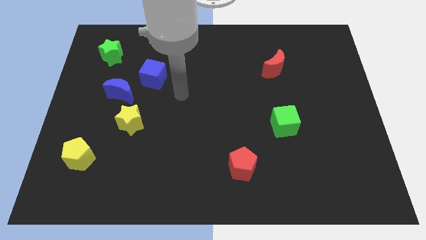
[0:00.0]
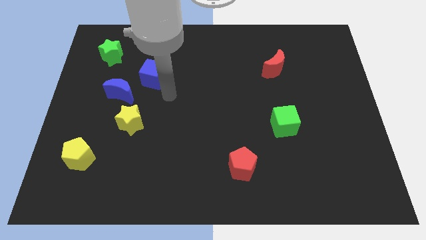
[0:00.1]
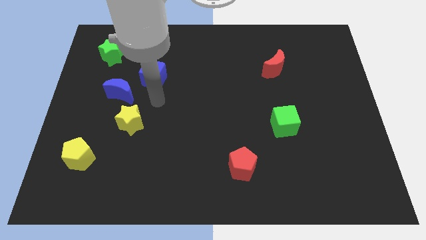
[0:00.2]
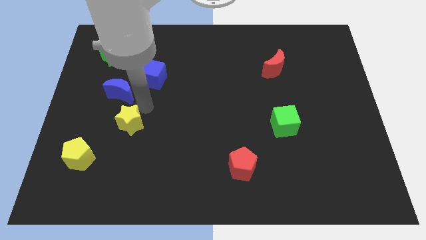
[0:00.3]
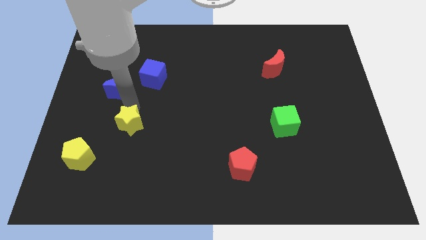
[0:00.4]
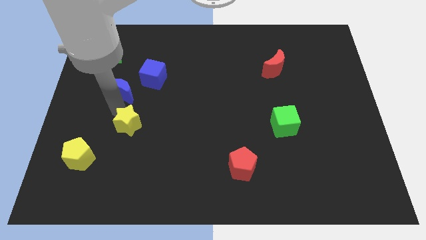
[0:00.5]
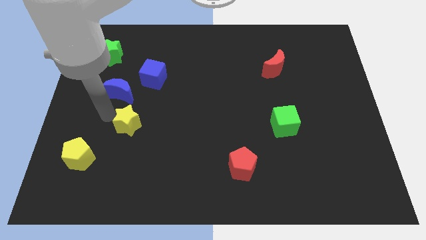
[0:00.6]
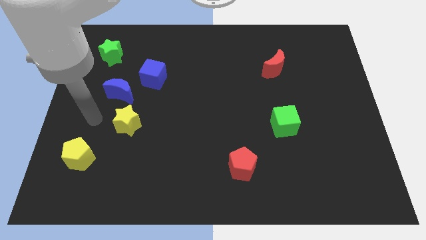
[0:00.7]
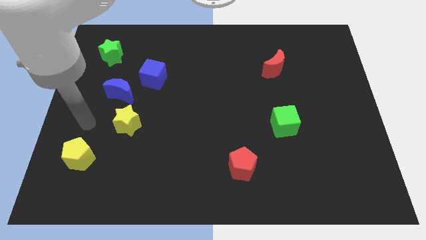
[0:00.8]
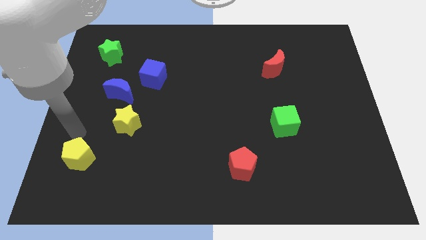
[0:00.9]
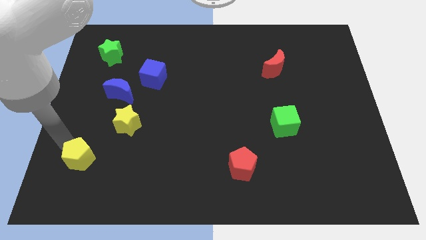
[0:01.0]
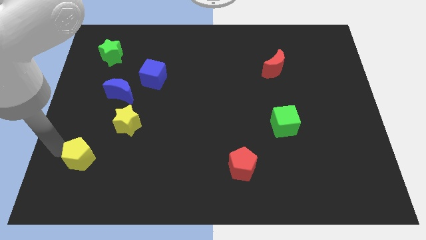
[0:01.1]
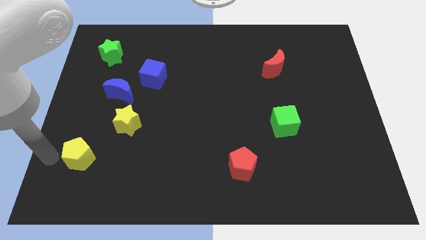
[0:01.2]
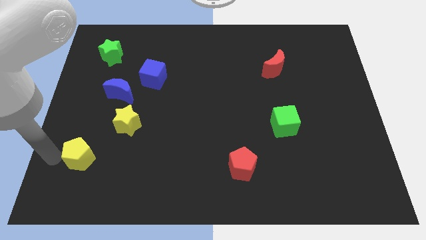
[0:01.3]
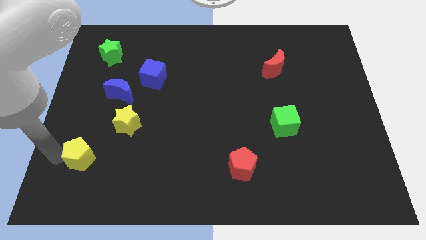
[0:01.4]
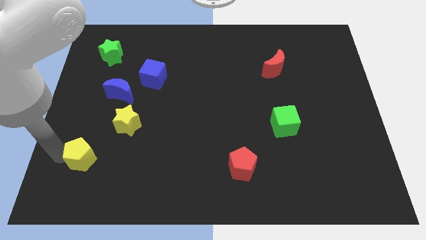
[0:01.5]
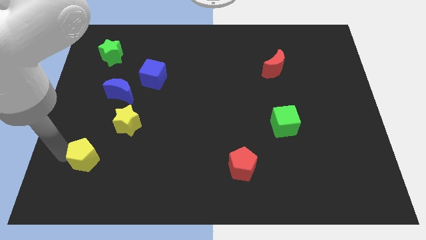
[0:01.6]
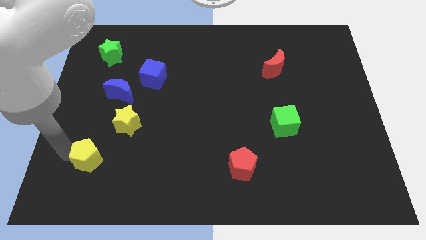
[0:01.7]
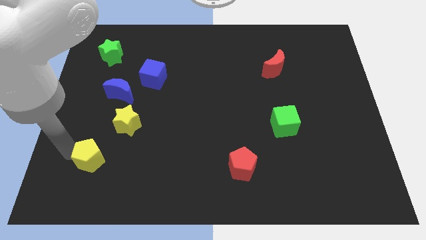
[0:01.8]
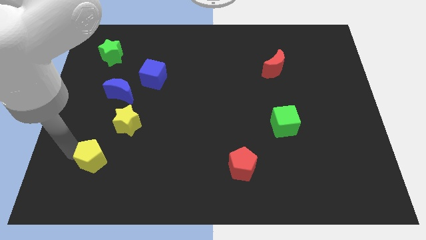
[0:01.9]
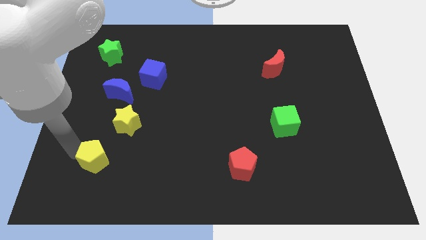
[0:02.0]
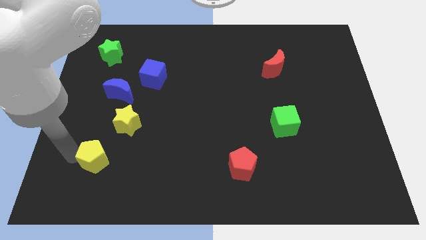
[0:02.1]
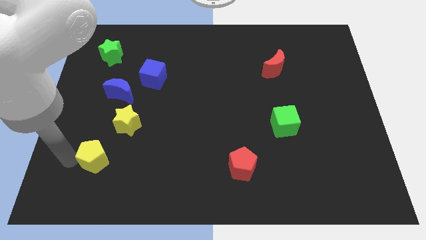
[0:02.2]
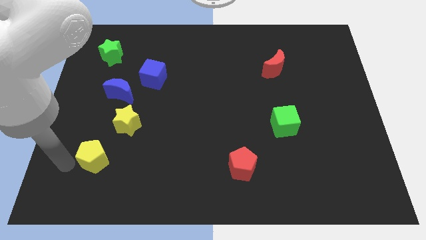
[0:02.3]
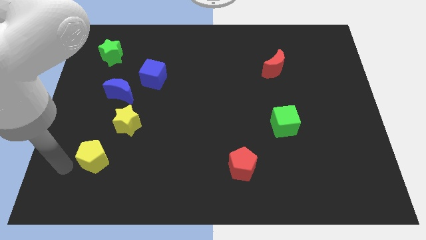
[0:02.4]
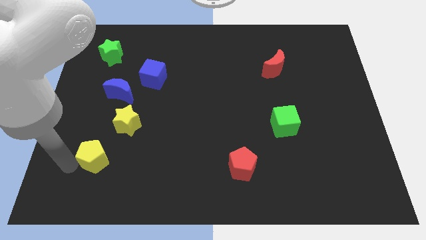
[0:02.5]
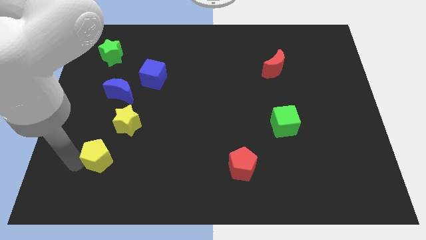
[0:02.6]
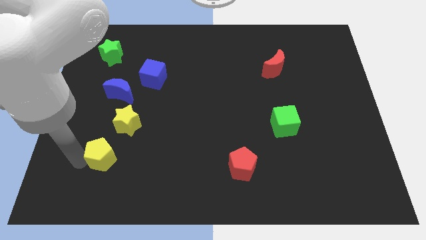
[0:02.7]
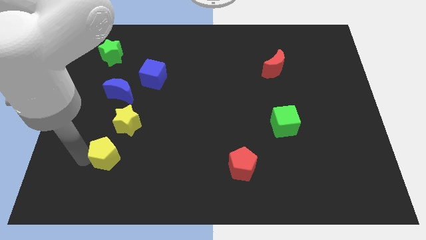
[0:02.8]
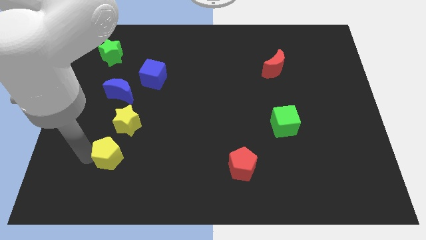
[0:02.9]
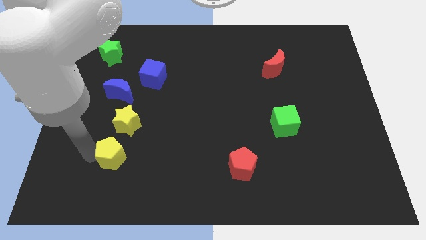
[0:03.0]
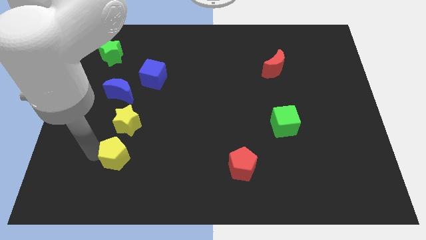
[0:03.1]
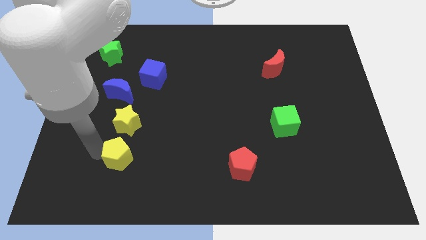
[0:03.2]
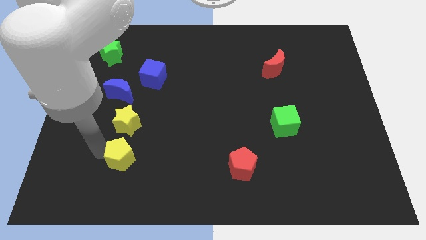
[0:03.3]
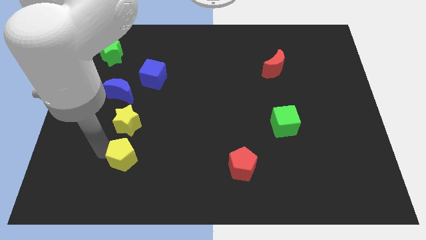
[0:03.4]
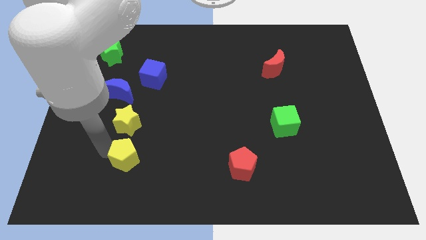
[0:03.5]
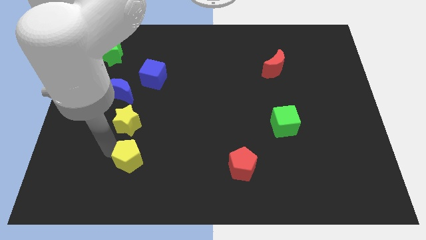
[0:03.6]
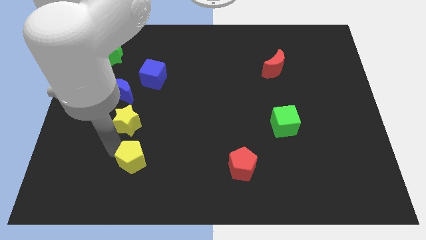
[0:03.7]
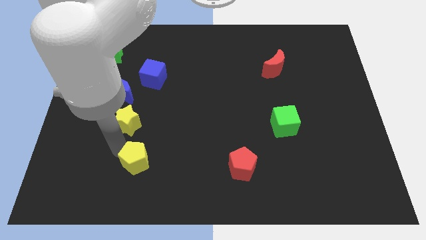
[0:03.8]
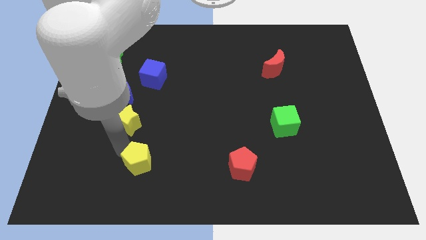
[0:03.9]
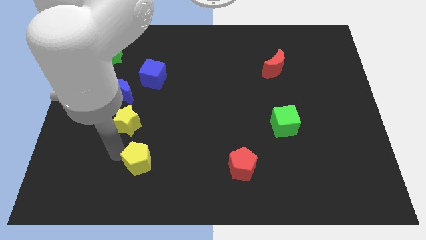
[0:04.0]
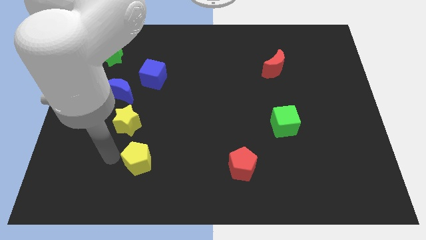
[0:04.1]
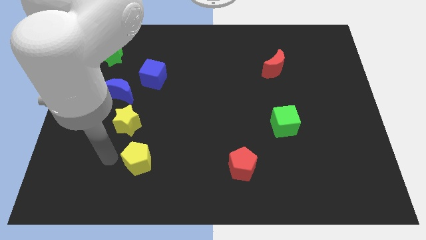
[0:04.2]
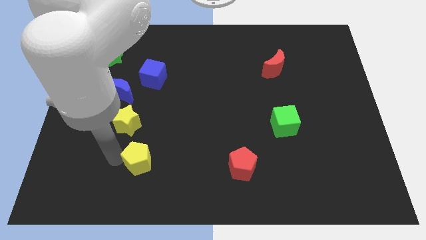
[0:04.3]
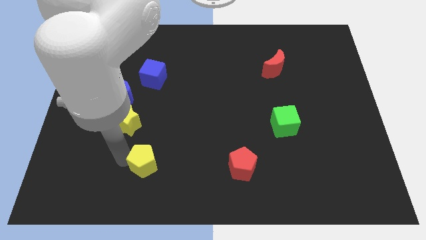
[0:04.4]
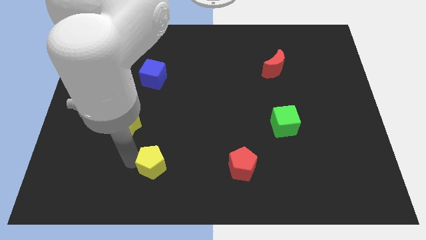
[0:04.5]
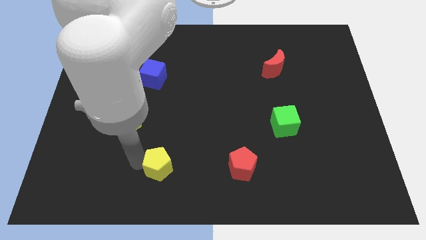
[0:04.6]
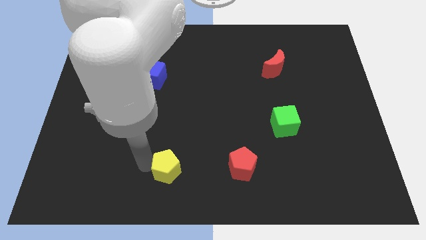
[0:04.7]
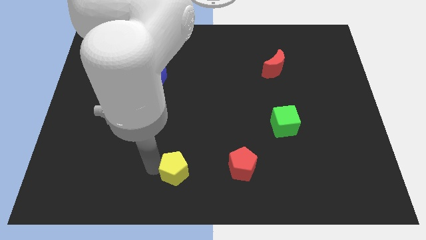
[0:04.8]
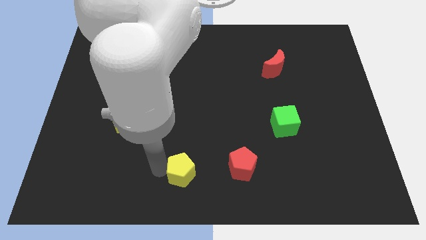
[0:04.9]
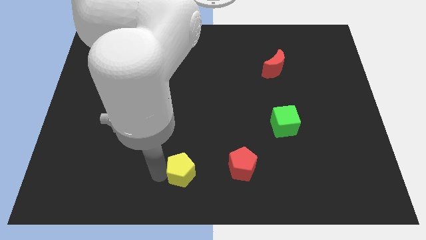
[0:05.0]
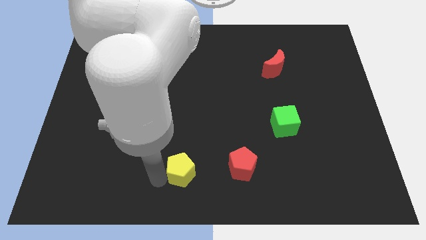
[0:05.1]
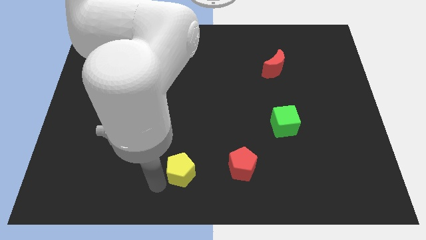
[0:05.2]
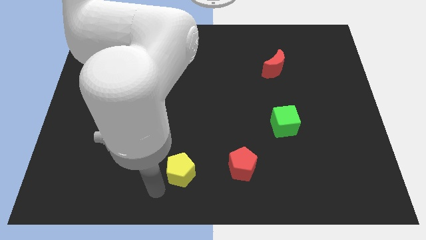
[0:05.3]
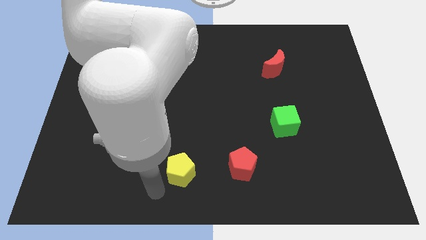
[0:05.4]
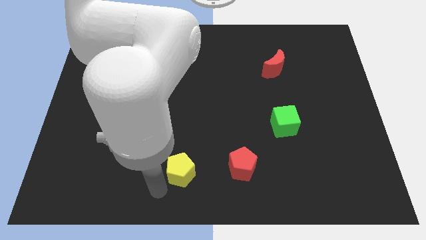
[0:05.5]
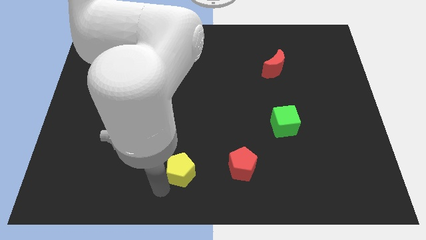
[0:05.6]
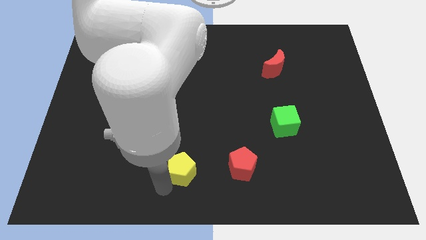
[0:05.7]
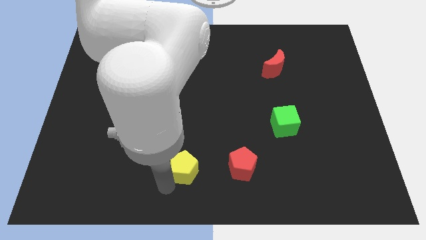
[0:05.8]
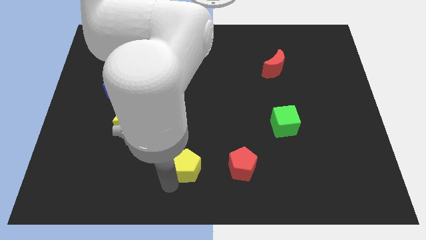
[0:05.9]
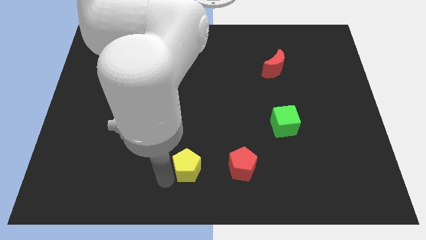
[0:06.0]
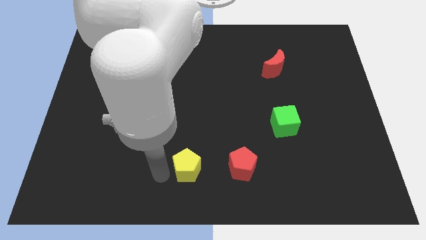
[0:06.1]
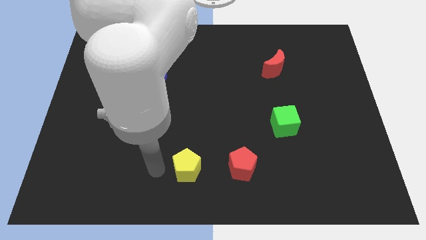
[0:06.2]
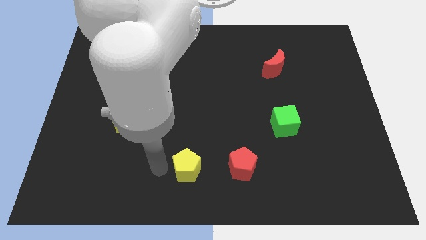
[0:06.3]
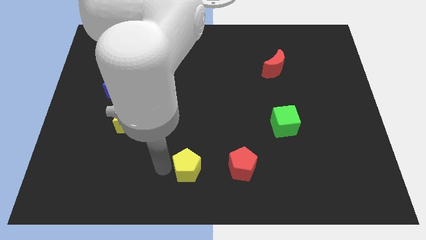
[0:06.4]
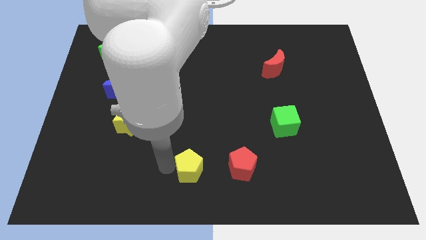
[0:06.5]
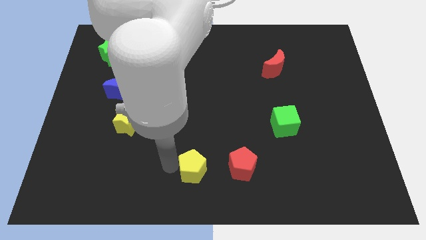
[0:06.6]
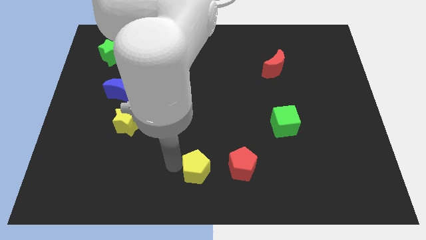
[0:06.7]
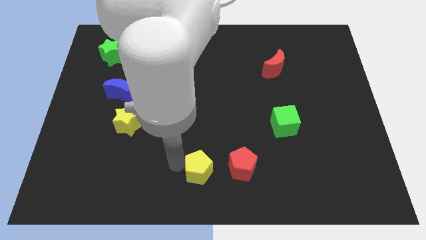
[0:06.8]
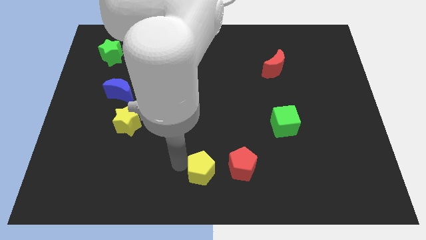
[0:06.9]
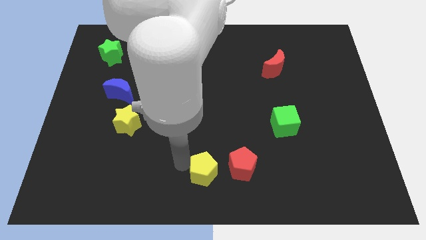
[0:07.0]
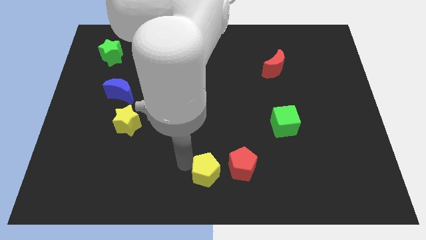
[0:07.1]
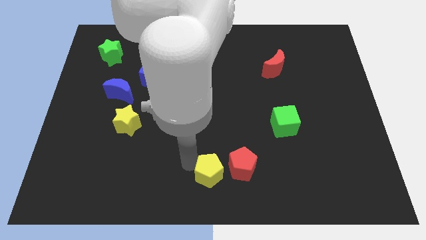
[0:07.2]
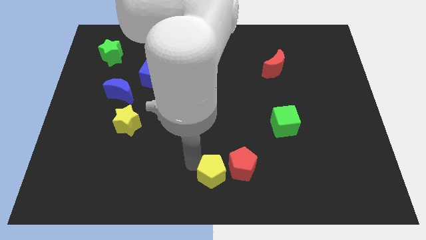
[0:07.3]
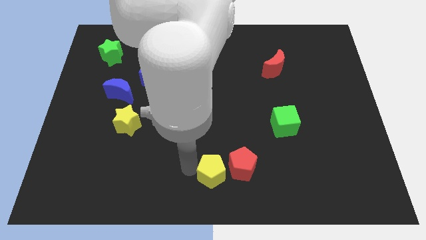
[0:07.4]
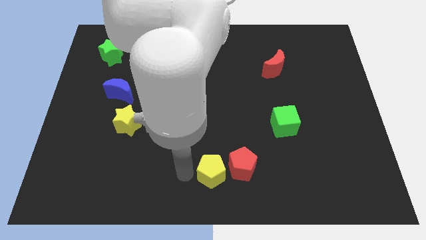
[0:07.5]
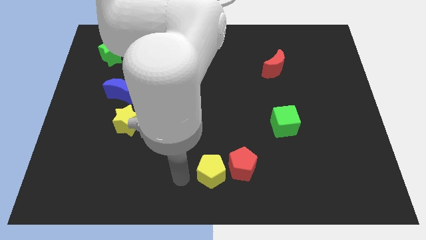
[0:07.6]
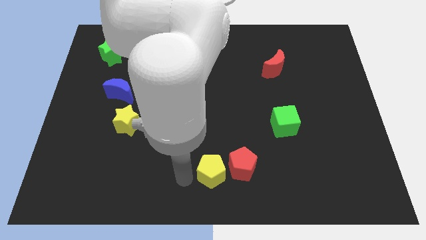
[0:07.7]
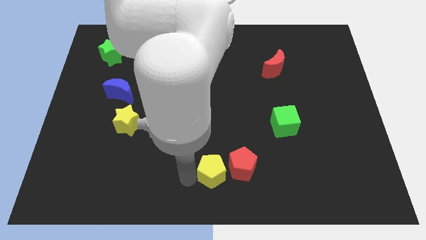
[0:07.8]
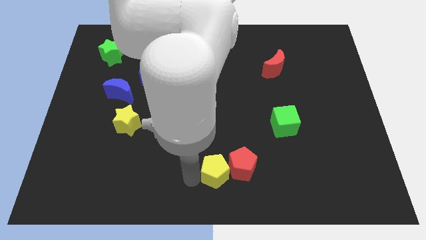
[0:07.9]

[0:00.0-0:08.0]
put the yellow pentagon next to the red pentagon
